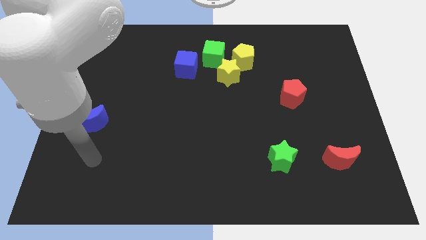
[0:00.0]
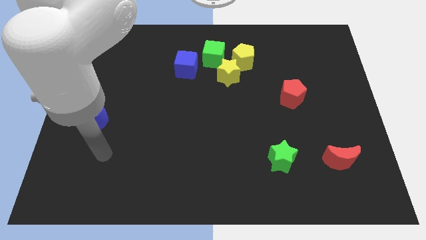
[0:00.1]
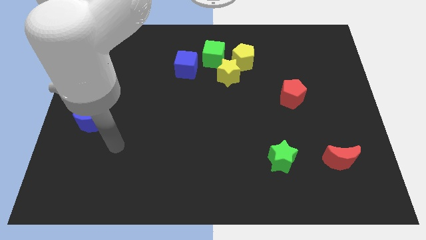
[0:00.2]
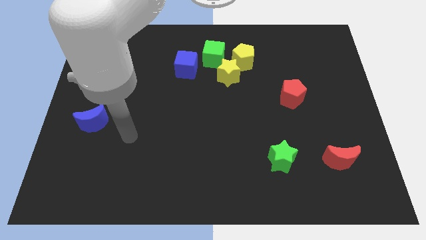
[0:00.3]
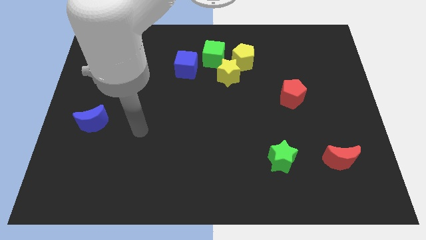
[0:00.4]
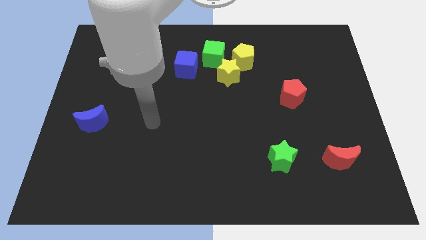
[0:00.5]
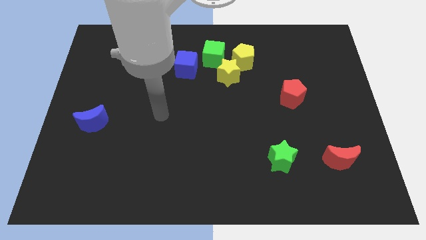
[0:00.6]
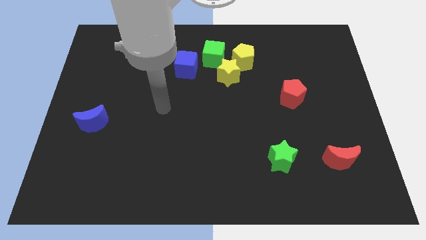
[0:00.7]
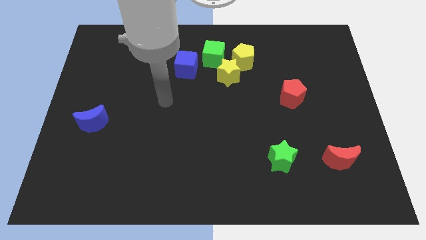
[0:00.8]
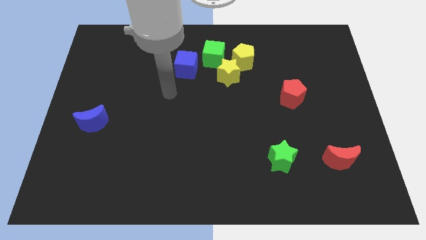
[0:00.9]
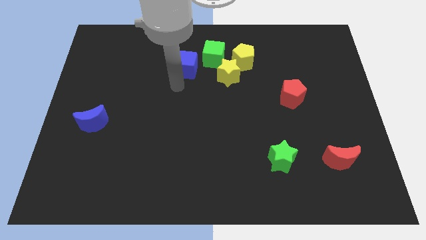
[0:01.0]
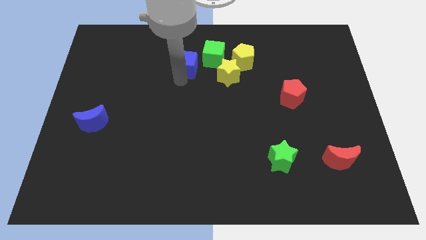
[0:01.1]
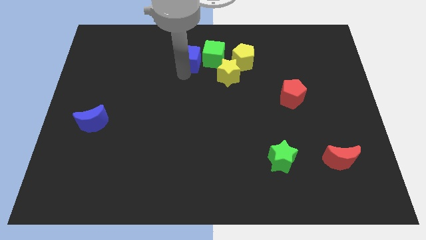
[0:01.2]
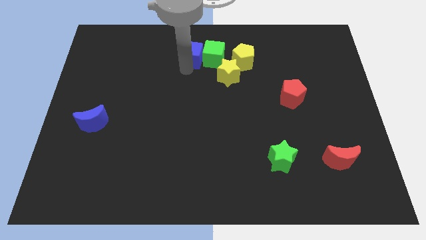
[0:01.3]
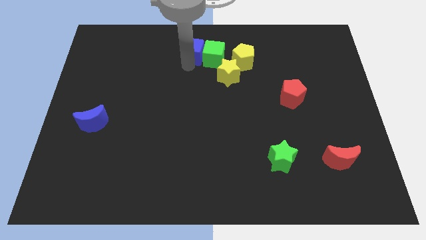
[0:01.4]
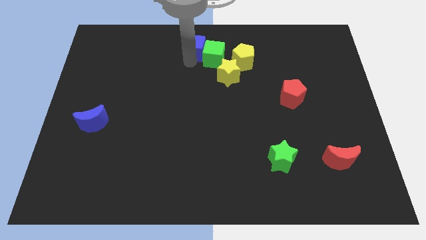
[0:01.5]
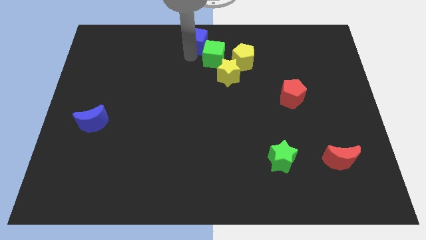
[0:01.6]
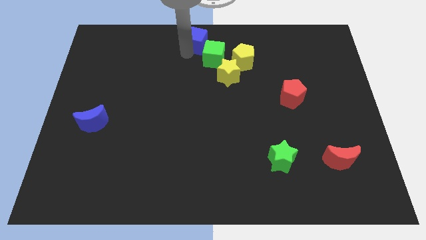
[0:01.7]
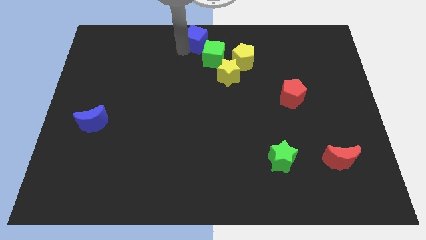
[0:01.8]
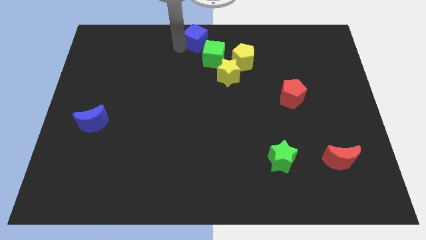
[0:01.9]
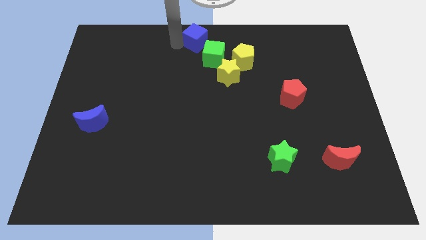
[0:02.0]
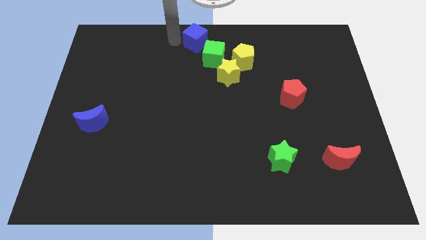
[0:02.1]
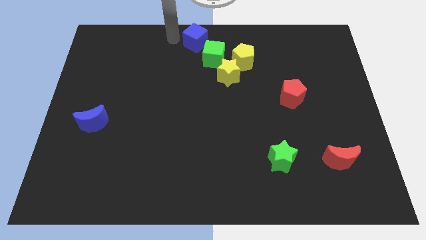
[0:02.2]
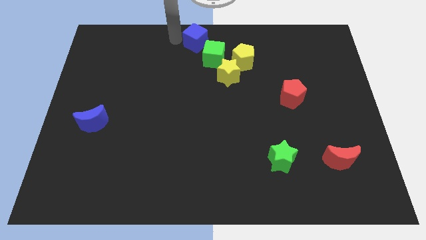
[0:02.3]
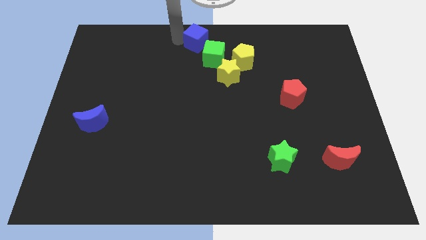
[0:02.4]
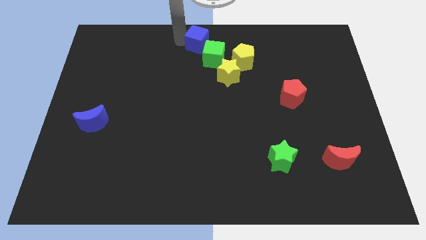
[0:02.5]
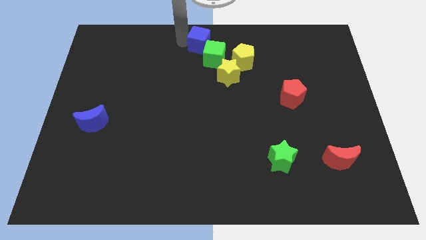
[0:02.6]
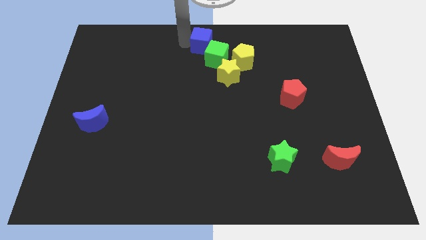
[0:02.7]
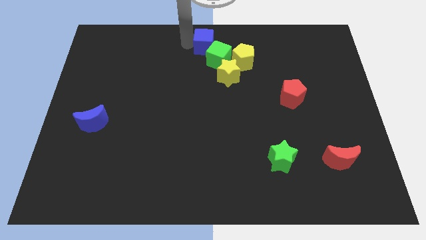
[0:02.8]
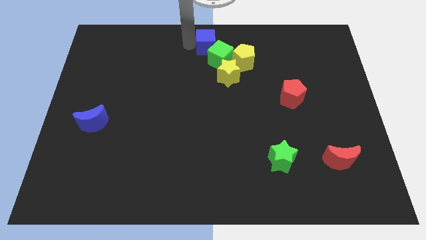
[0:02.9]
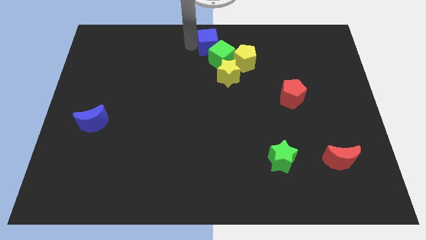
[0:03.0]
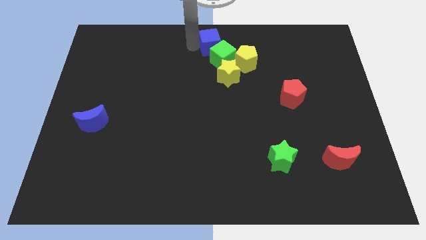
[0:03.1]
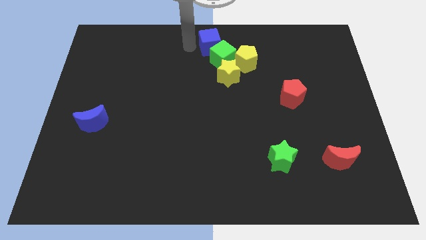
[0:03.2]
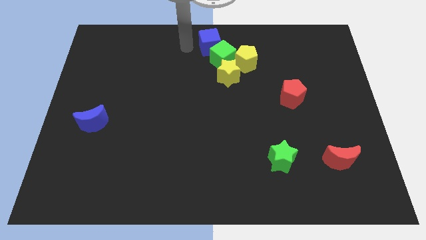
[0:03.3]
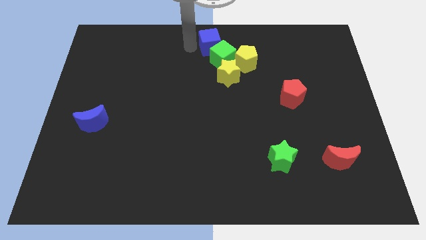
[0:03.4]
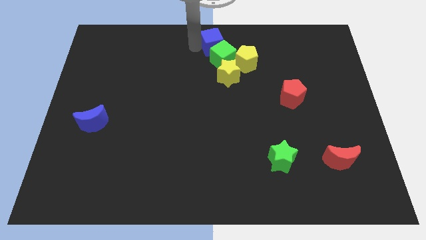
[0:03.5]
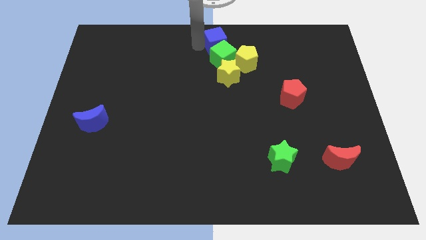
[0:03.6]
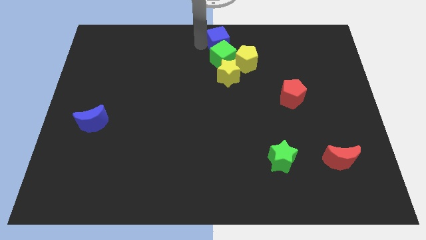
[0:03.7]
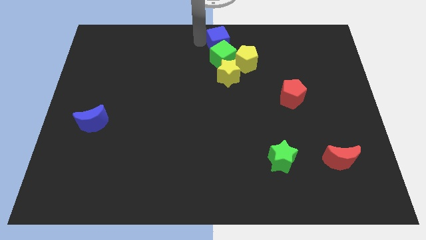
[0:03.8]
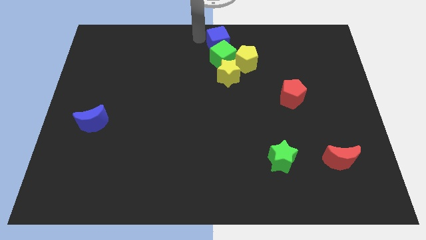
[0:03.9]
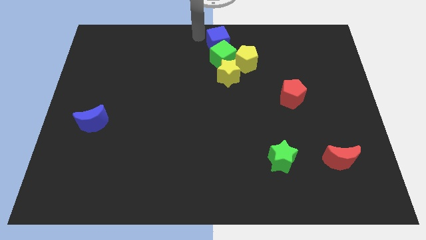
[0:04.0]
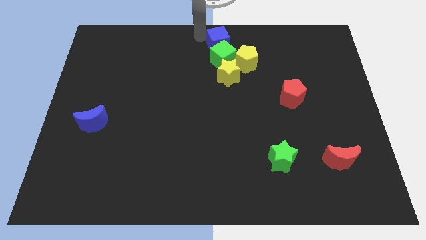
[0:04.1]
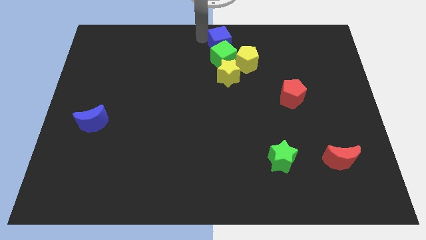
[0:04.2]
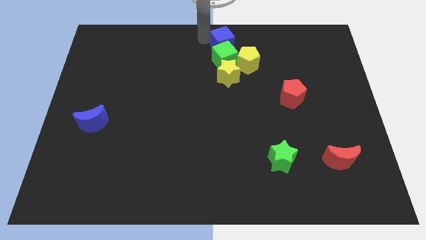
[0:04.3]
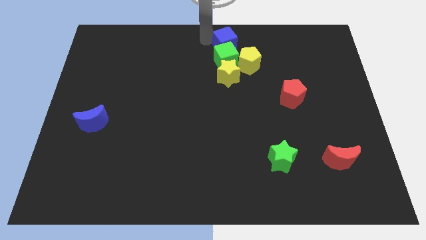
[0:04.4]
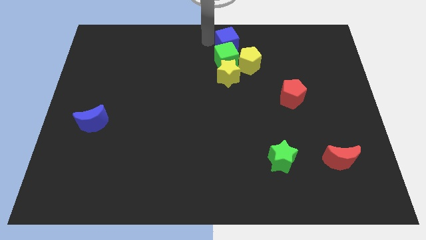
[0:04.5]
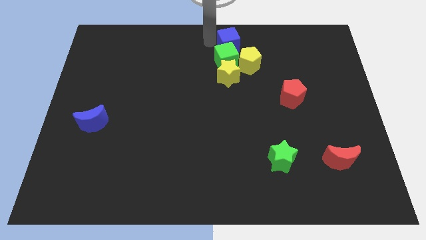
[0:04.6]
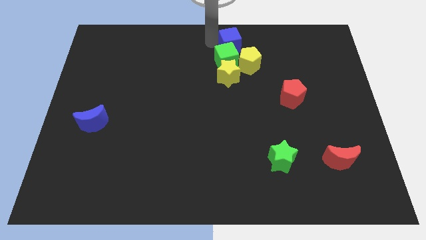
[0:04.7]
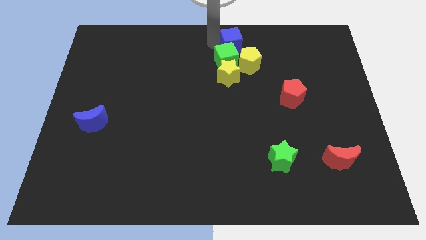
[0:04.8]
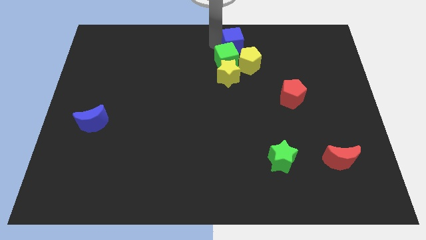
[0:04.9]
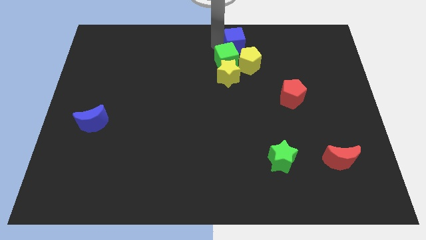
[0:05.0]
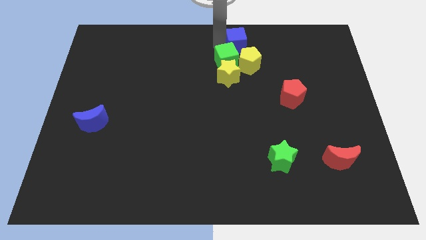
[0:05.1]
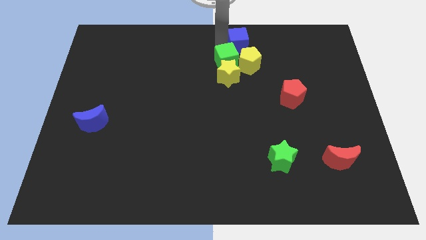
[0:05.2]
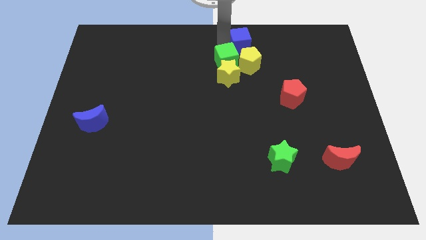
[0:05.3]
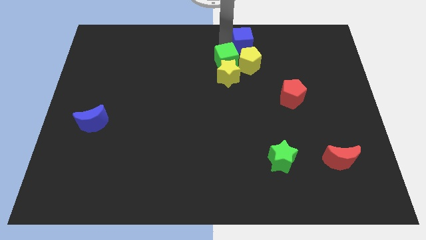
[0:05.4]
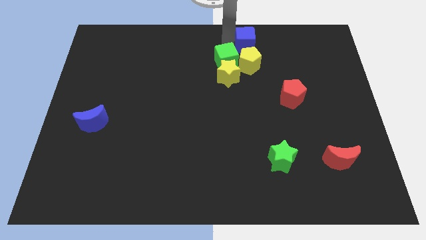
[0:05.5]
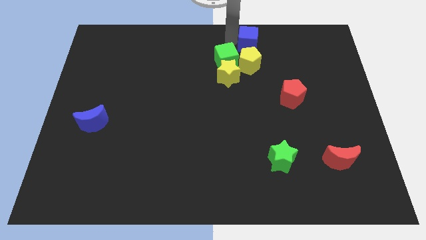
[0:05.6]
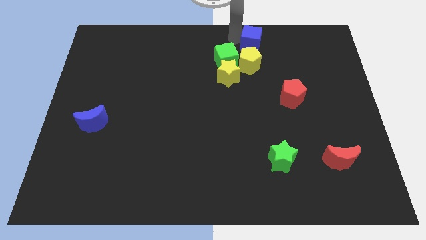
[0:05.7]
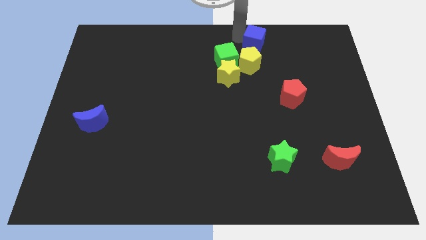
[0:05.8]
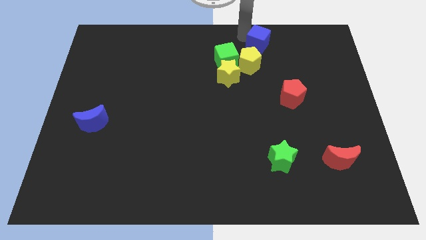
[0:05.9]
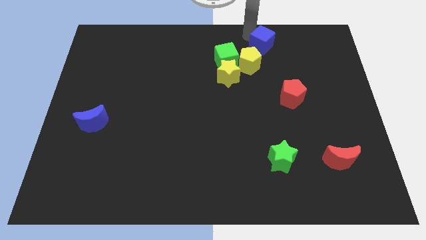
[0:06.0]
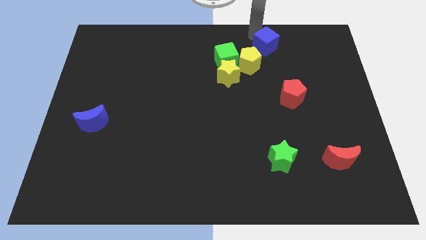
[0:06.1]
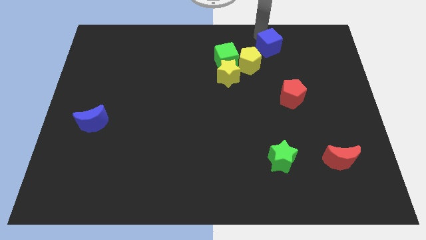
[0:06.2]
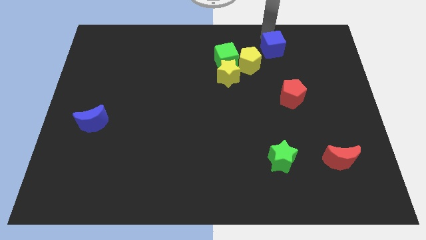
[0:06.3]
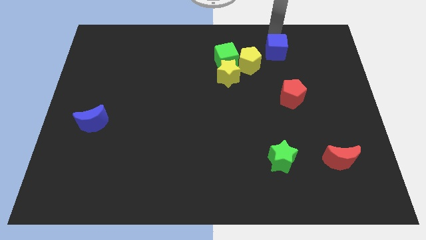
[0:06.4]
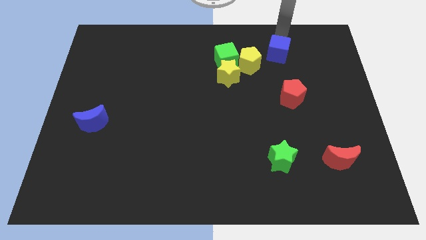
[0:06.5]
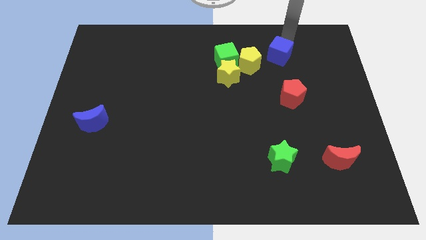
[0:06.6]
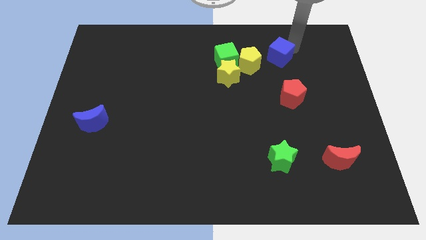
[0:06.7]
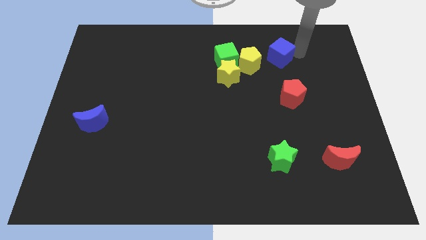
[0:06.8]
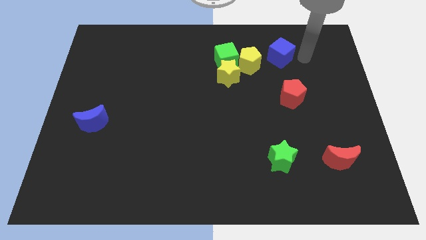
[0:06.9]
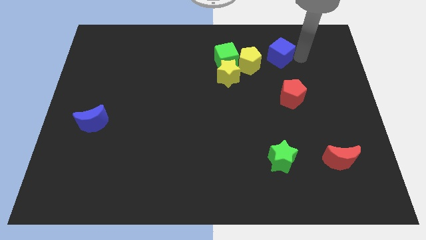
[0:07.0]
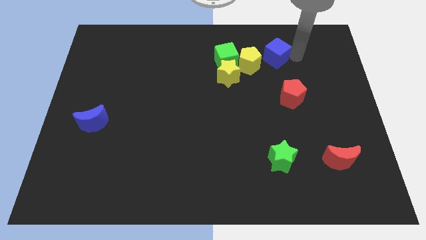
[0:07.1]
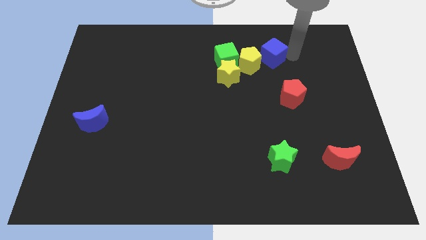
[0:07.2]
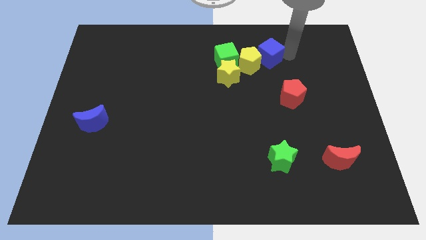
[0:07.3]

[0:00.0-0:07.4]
move the blue cube towards the yellow pentagon
